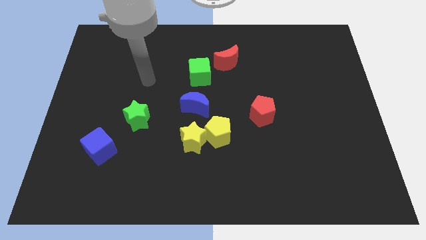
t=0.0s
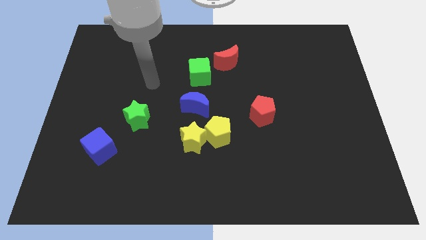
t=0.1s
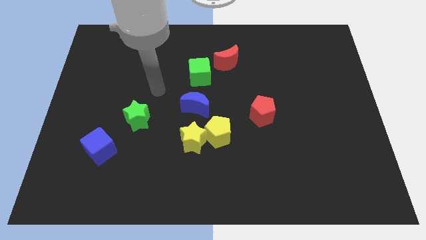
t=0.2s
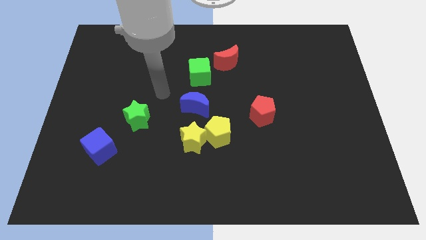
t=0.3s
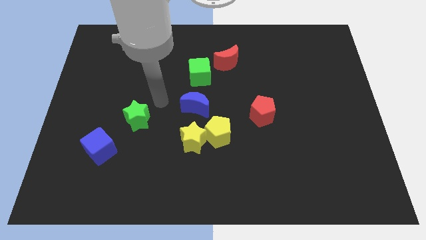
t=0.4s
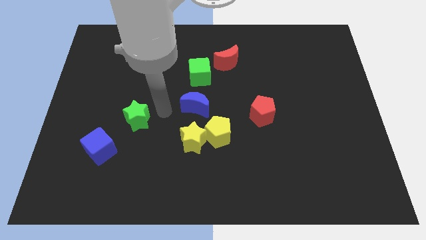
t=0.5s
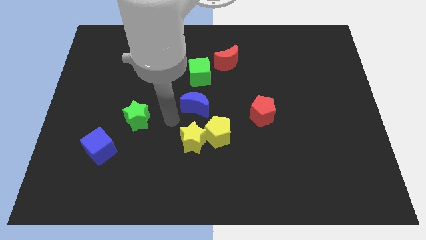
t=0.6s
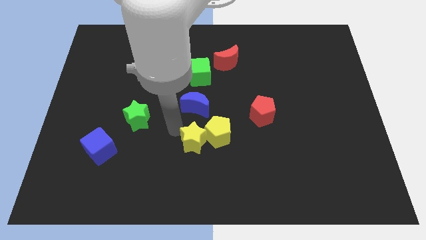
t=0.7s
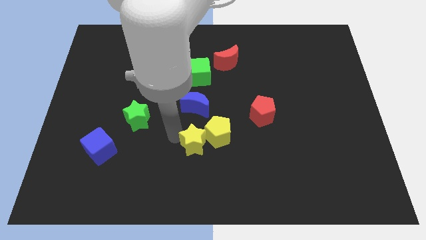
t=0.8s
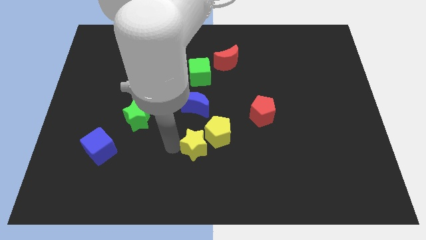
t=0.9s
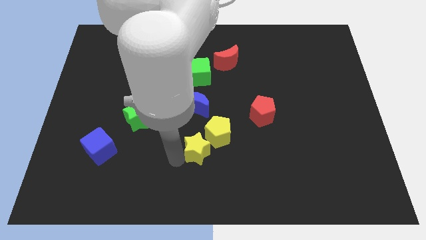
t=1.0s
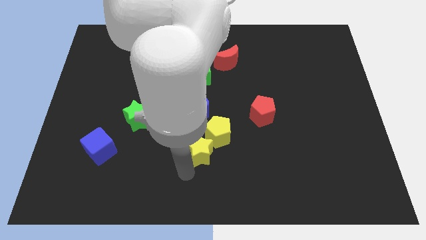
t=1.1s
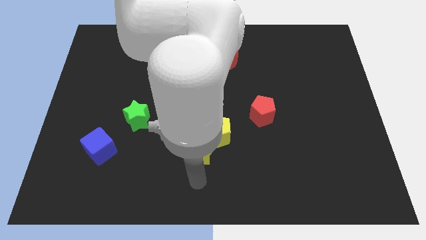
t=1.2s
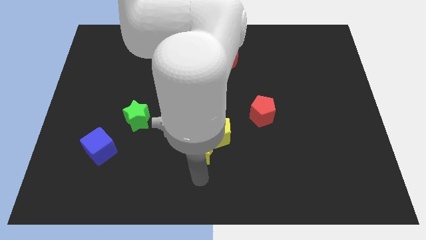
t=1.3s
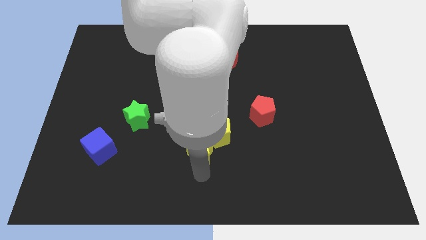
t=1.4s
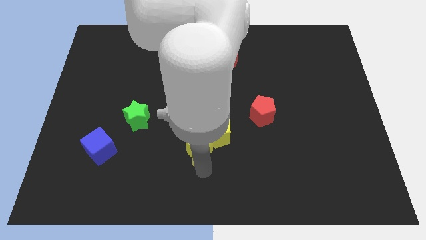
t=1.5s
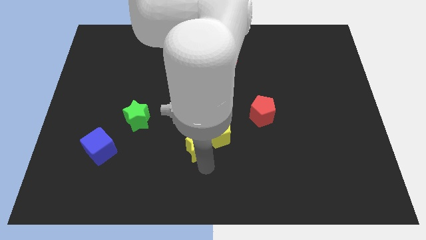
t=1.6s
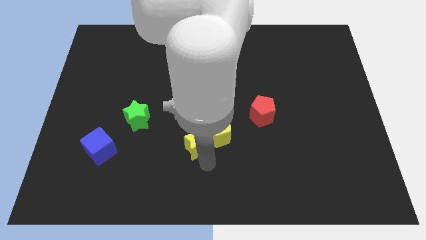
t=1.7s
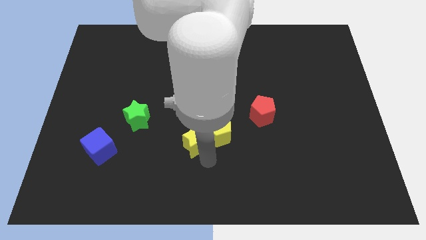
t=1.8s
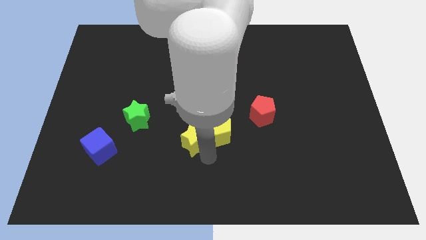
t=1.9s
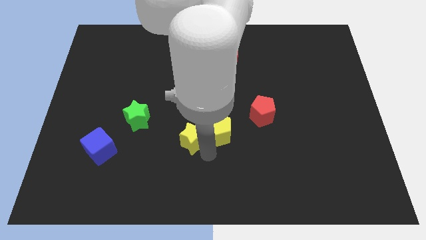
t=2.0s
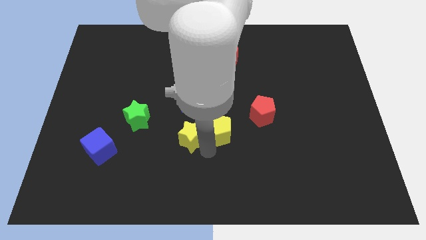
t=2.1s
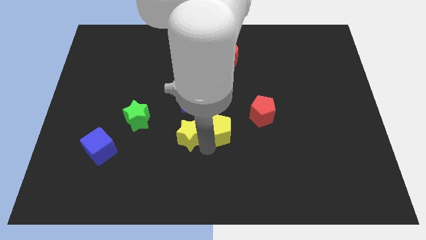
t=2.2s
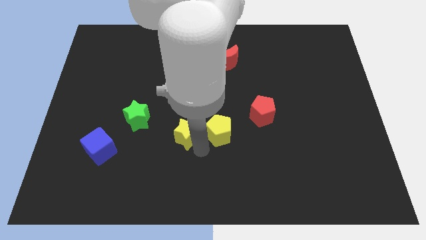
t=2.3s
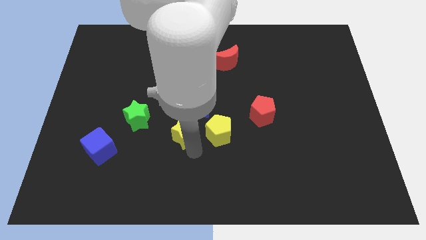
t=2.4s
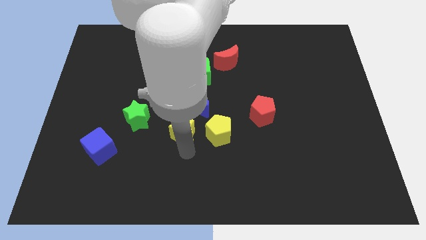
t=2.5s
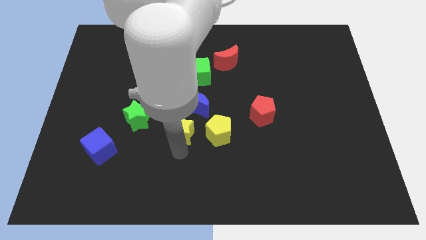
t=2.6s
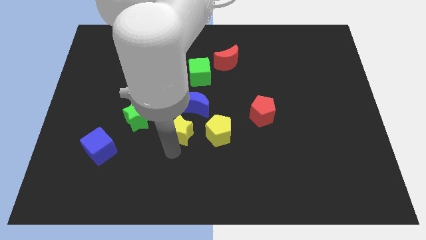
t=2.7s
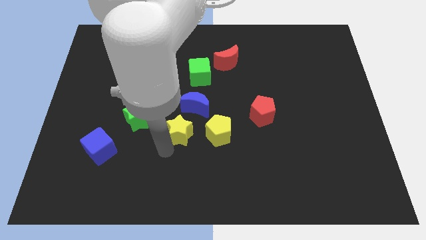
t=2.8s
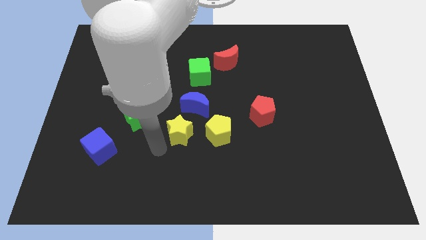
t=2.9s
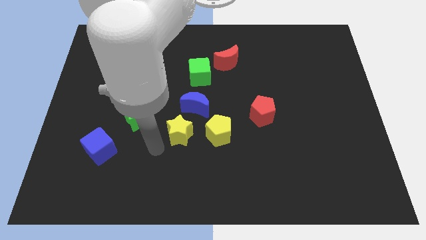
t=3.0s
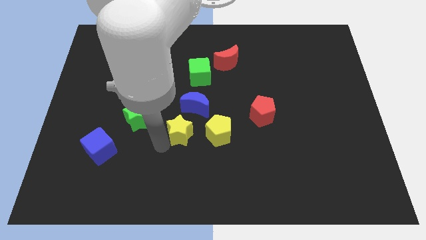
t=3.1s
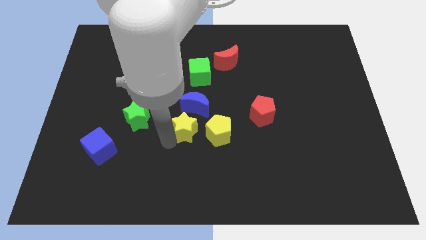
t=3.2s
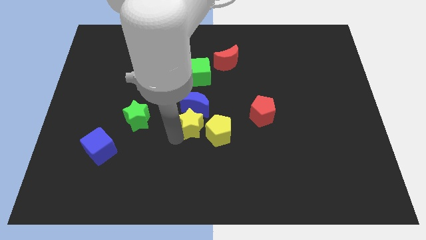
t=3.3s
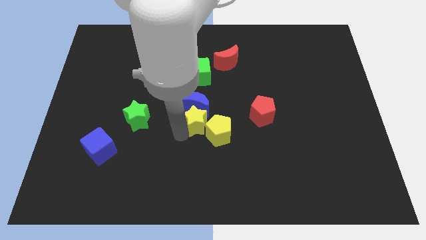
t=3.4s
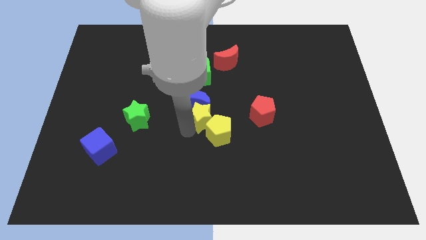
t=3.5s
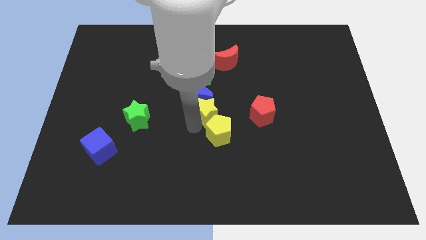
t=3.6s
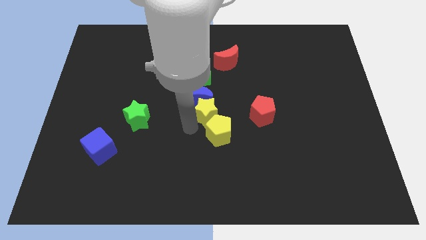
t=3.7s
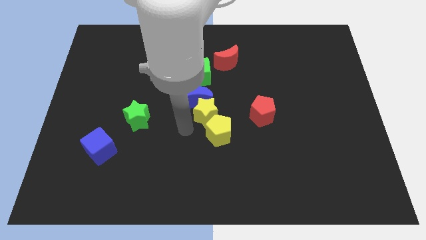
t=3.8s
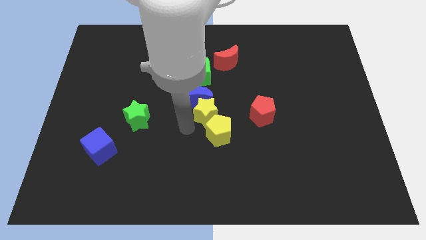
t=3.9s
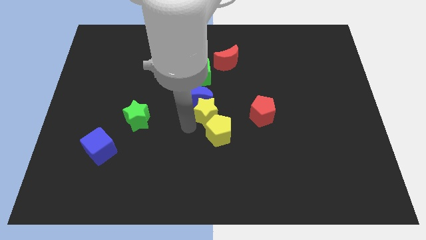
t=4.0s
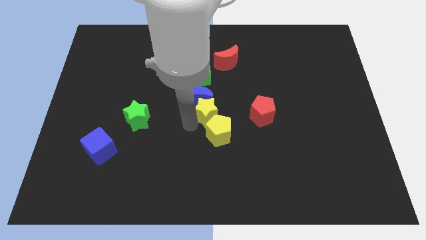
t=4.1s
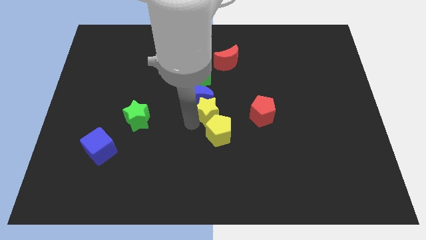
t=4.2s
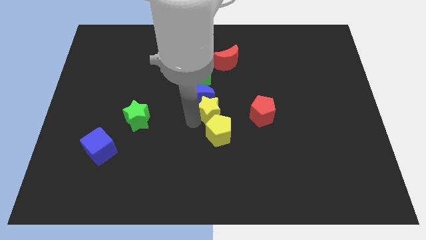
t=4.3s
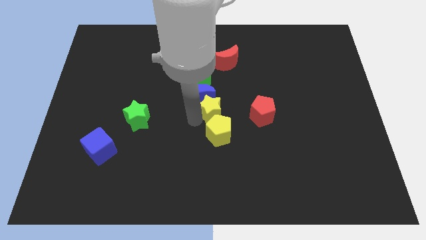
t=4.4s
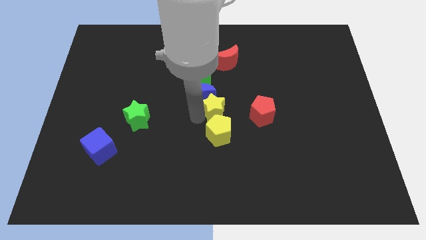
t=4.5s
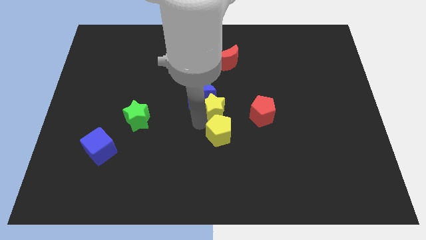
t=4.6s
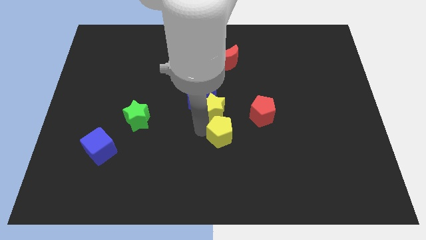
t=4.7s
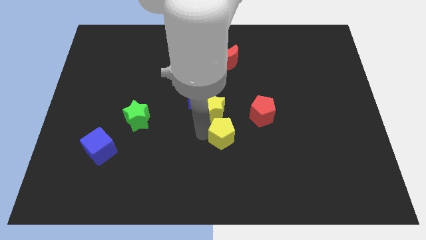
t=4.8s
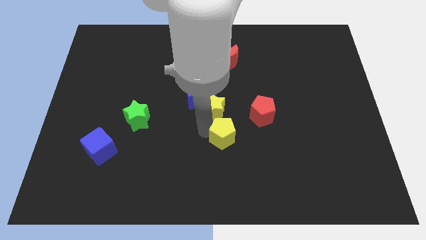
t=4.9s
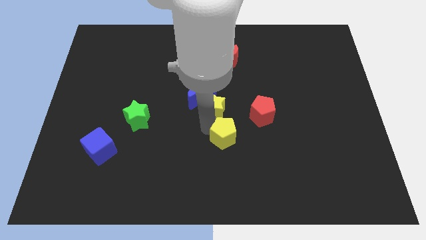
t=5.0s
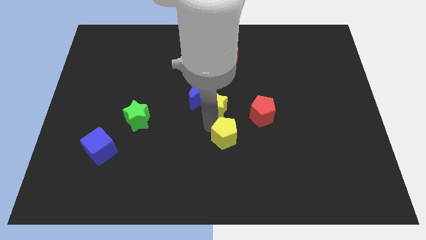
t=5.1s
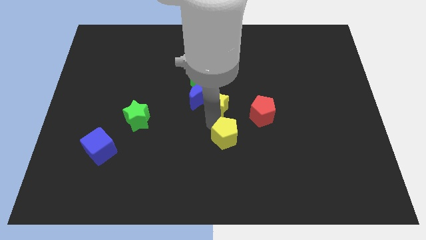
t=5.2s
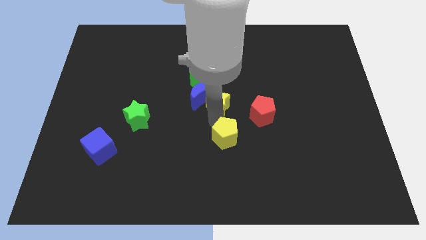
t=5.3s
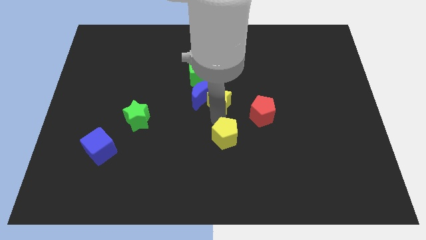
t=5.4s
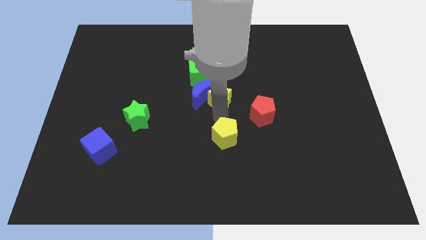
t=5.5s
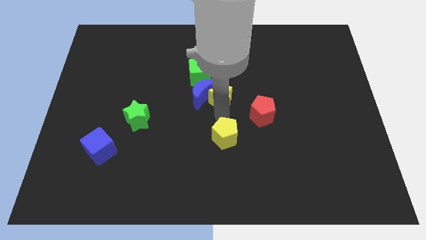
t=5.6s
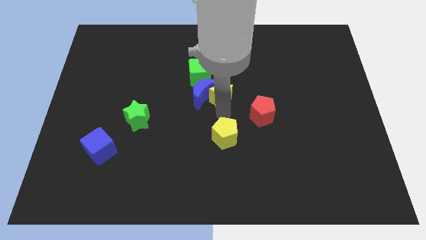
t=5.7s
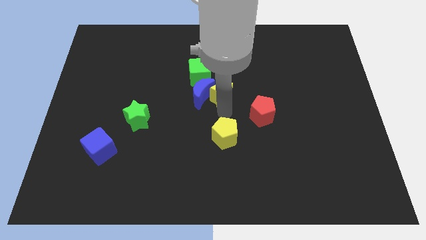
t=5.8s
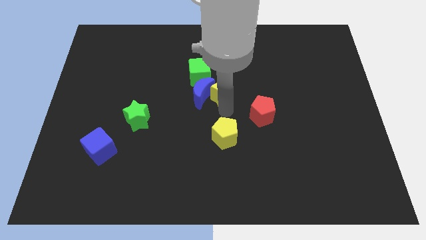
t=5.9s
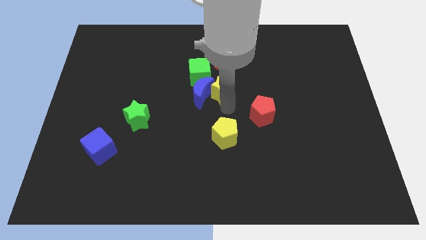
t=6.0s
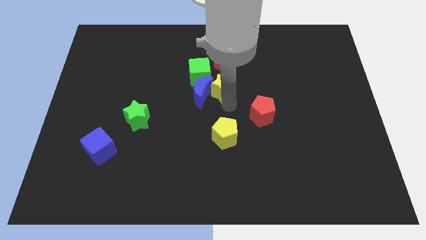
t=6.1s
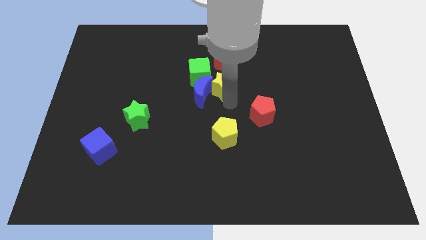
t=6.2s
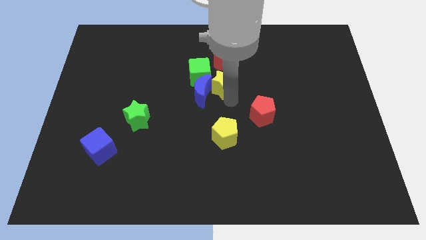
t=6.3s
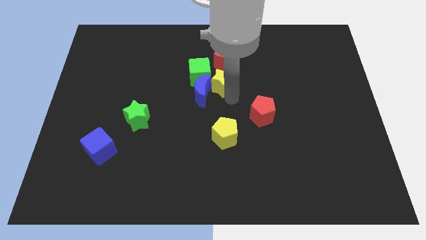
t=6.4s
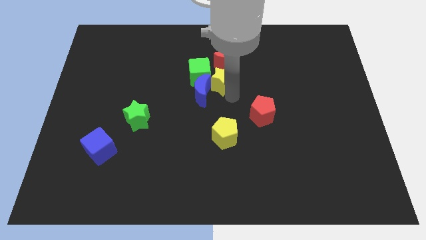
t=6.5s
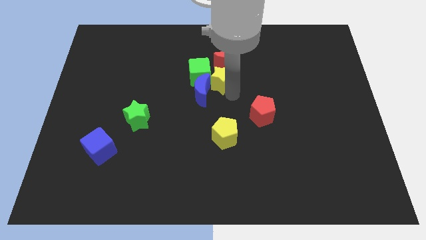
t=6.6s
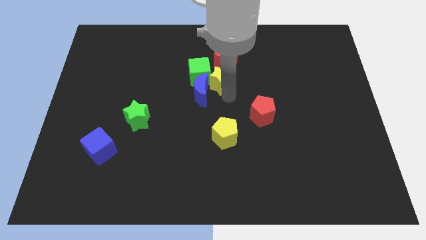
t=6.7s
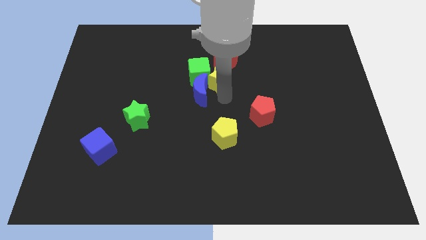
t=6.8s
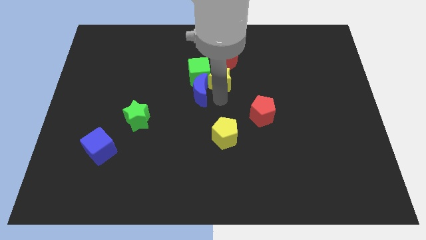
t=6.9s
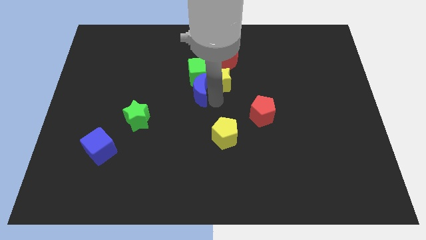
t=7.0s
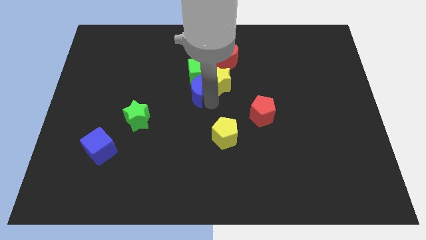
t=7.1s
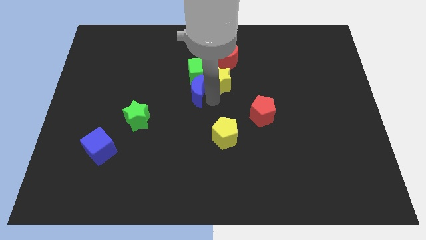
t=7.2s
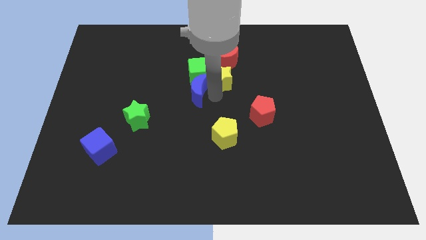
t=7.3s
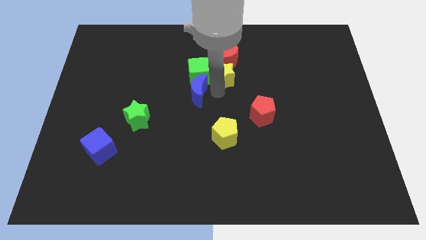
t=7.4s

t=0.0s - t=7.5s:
put the yellow star towards the red moon
